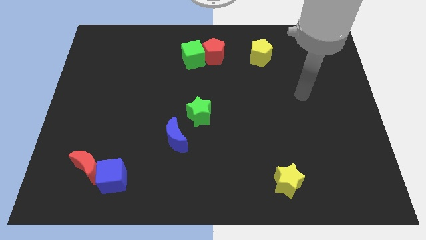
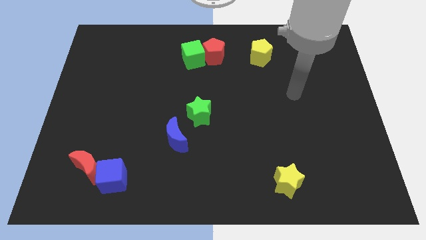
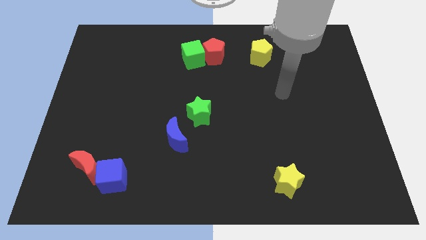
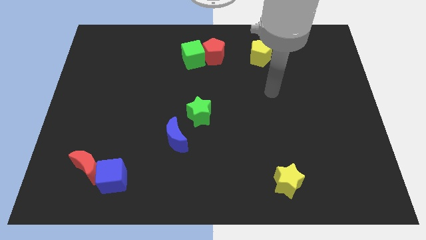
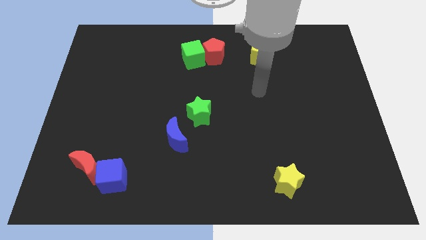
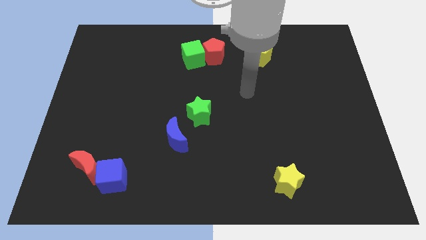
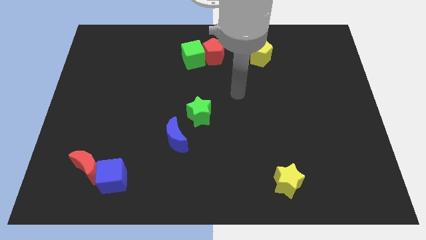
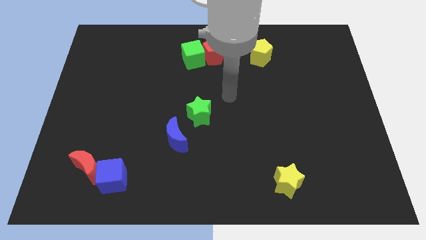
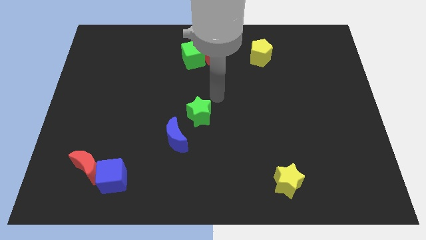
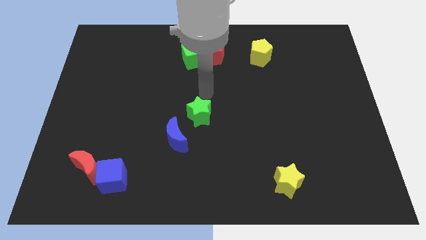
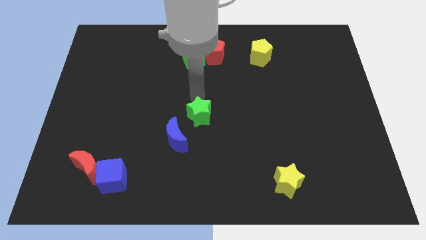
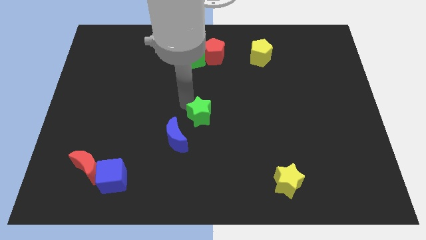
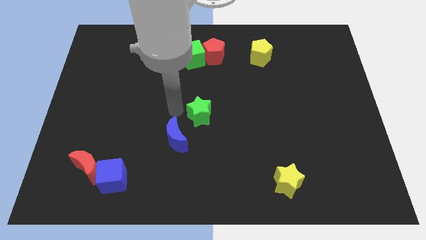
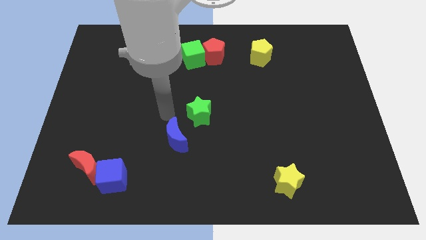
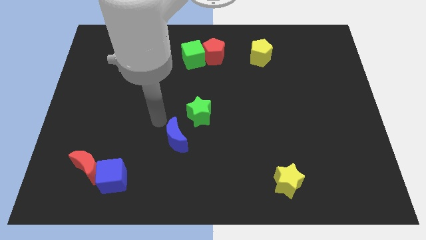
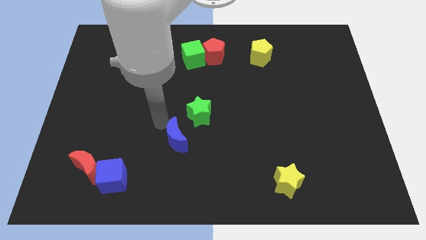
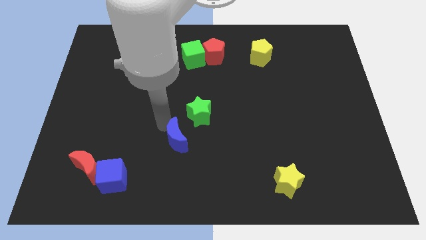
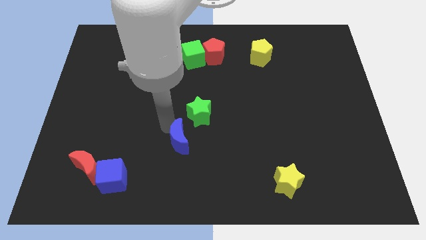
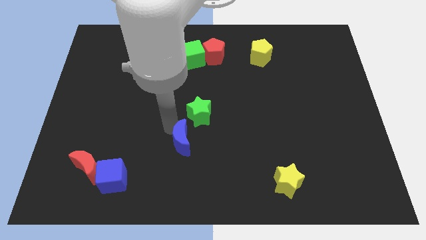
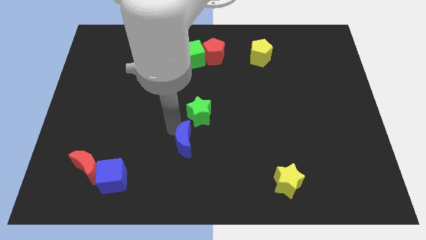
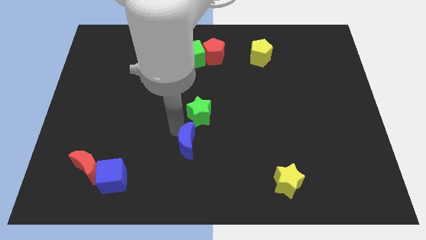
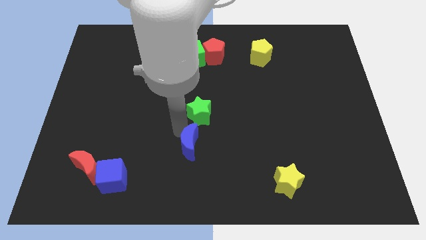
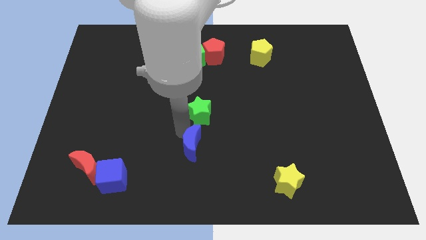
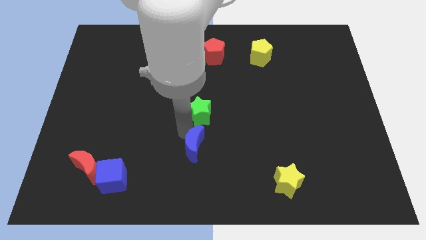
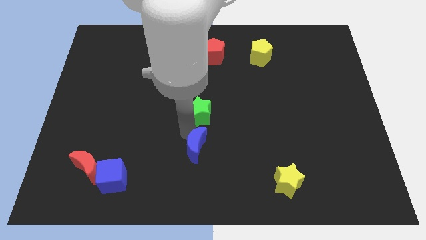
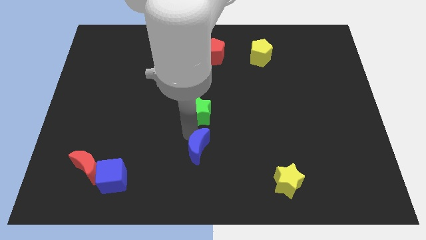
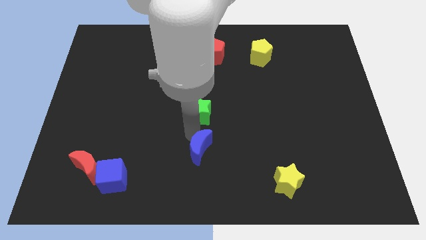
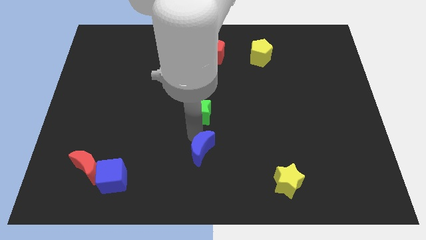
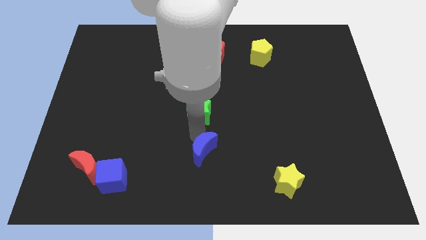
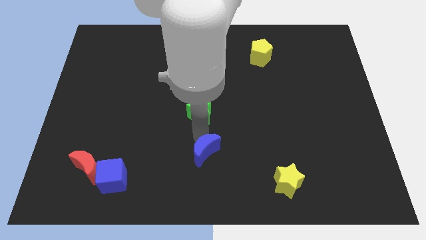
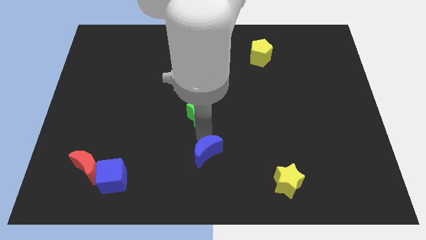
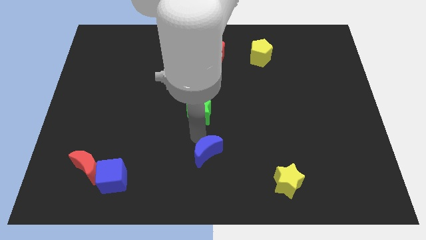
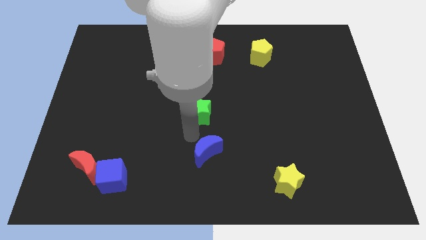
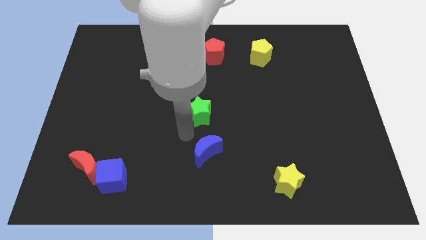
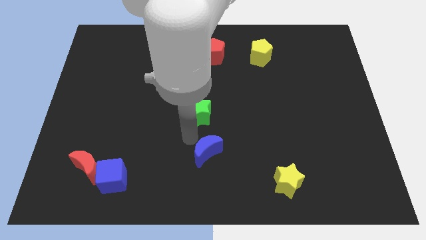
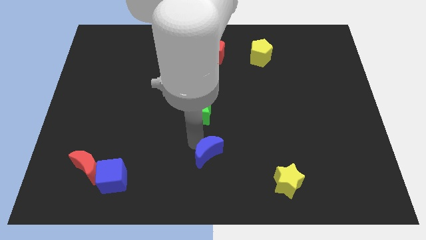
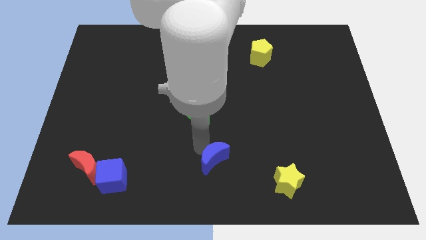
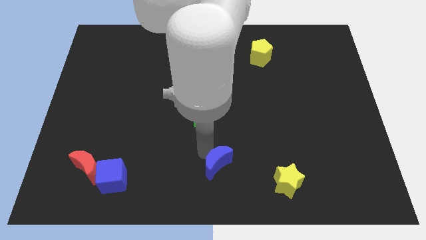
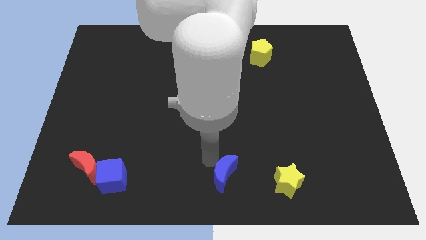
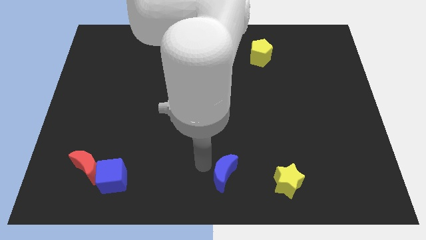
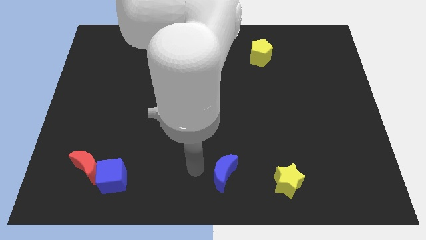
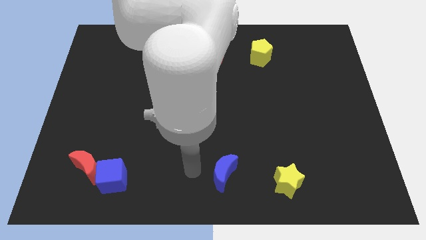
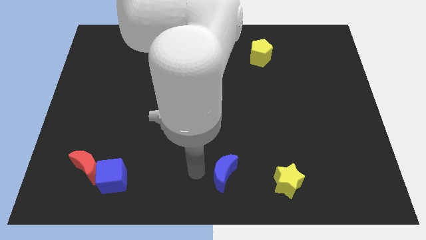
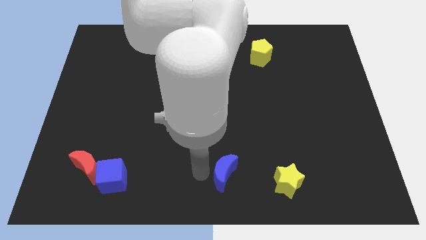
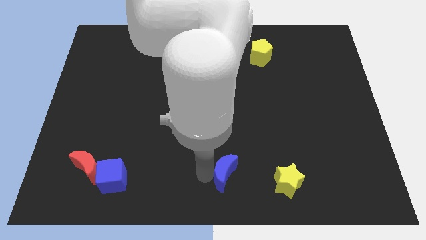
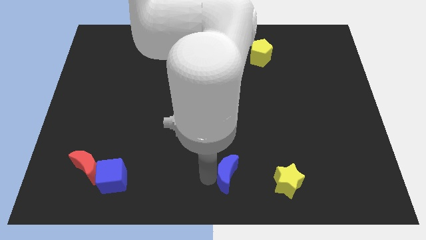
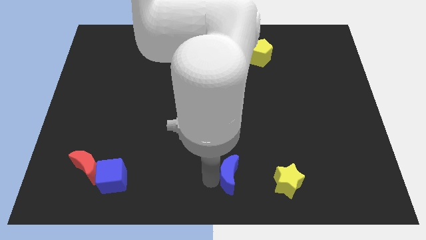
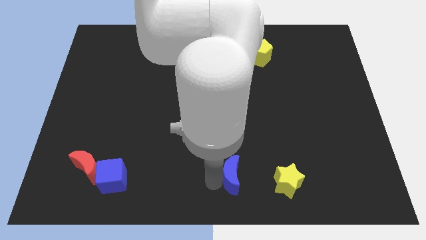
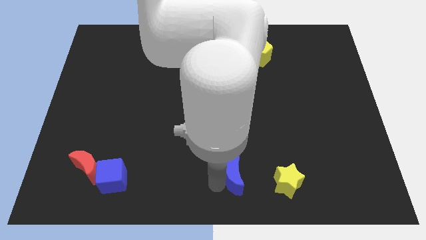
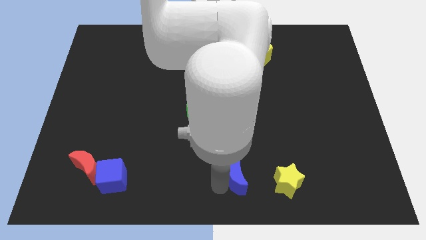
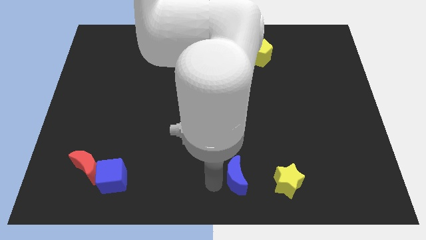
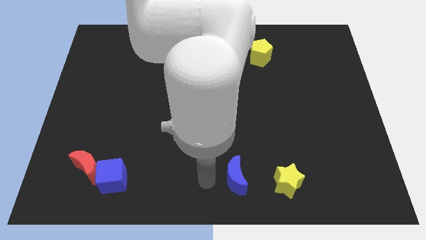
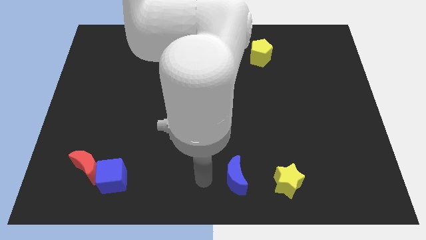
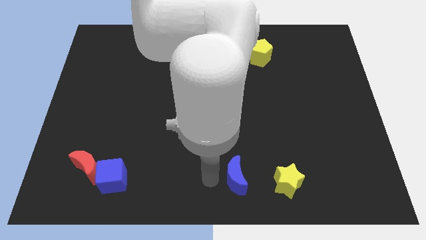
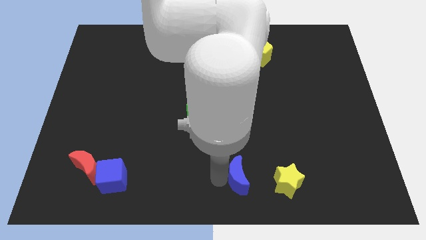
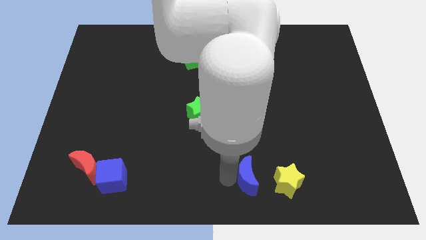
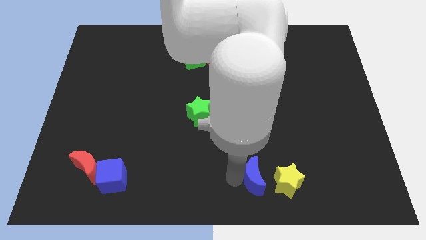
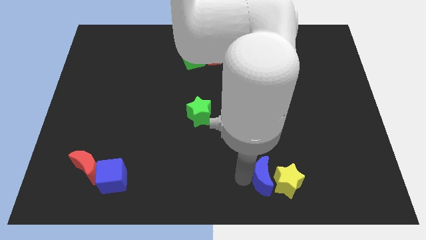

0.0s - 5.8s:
slide the blue moon close to the yellow star

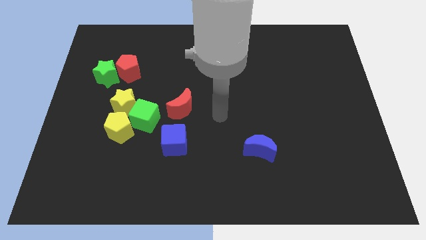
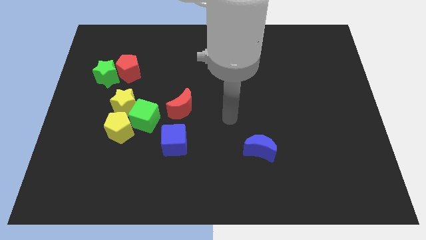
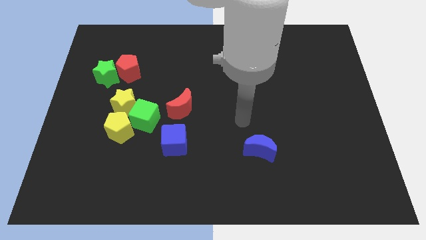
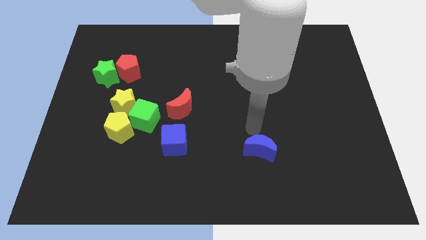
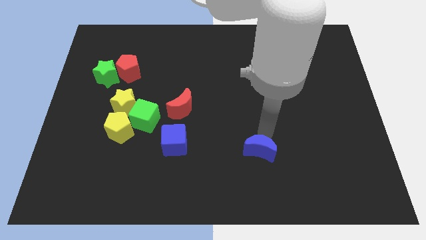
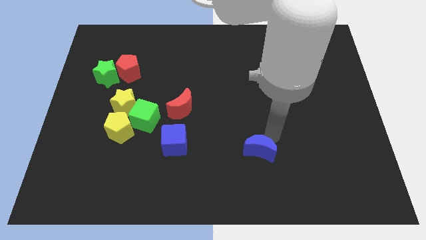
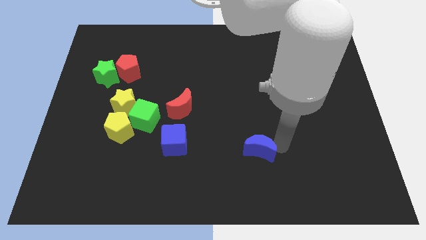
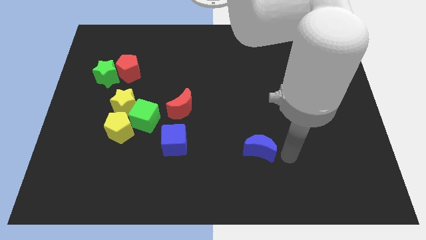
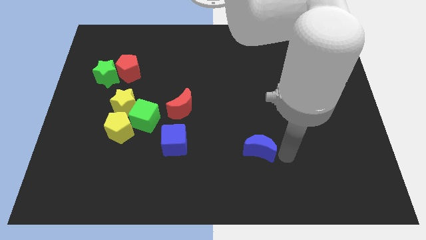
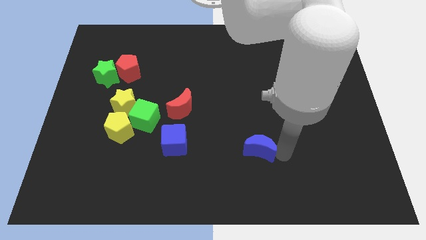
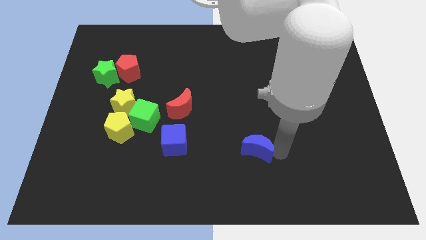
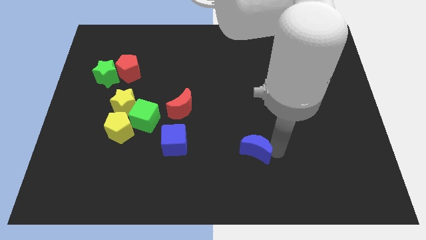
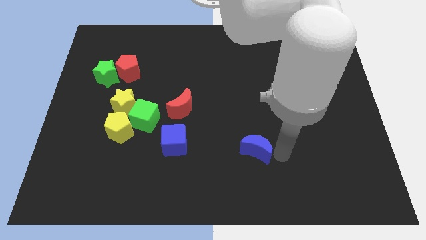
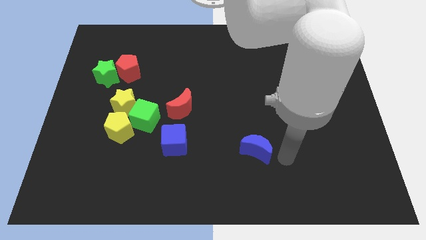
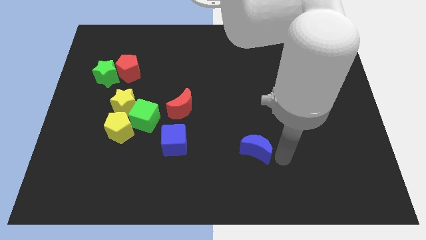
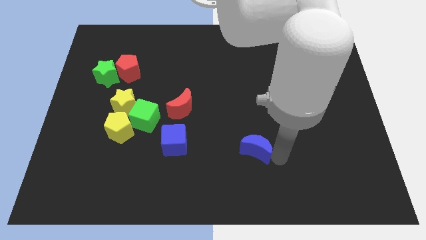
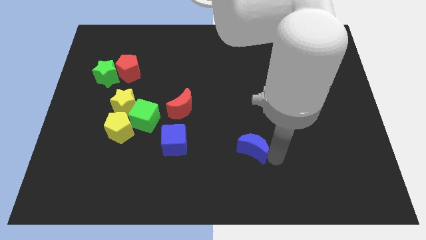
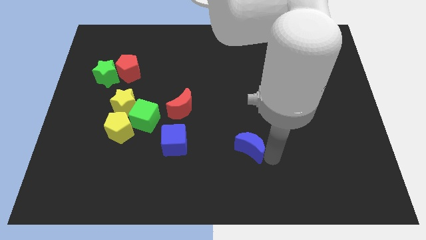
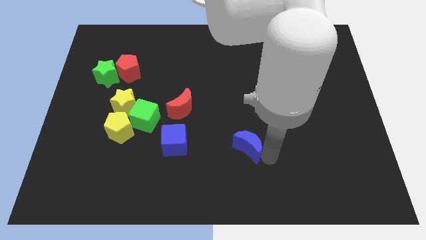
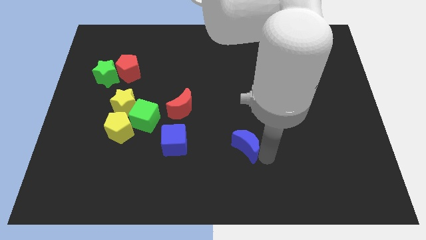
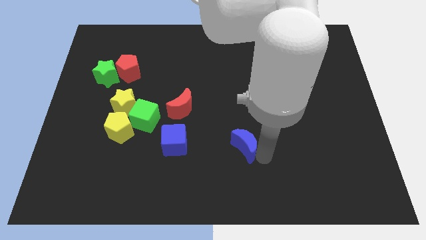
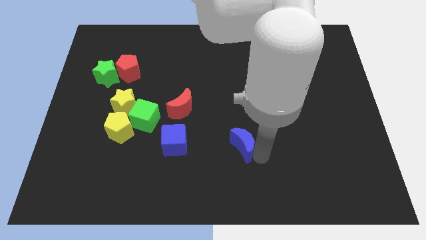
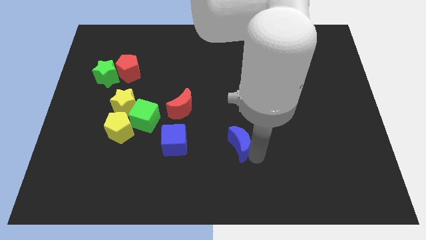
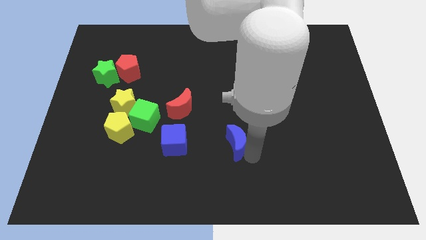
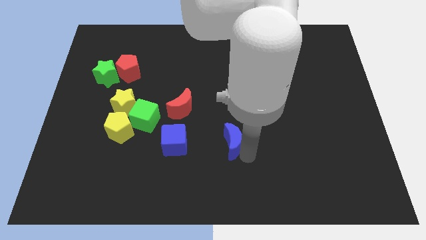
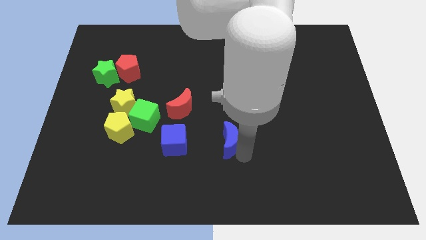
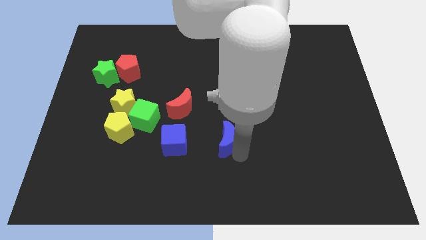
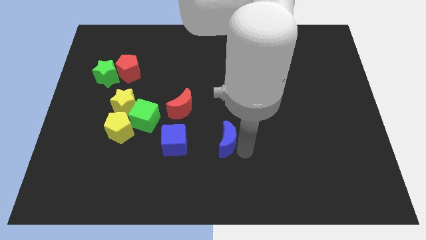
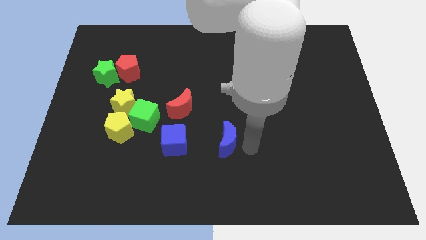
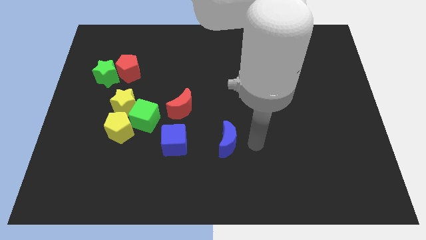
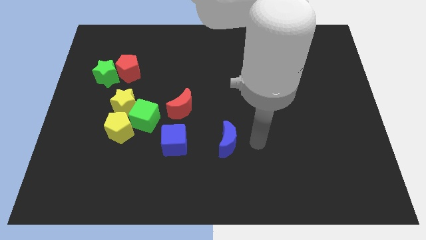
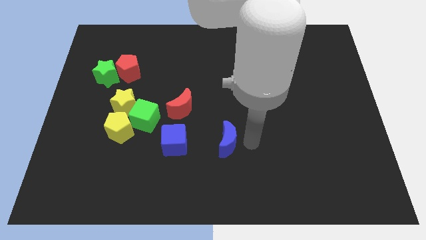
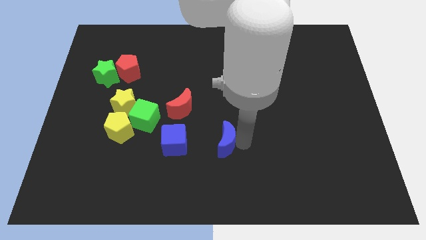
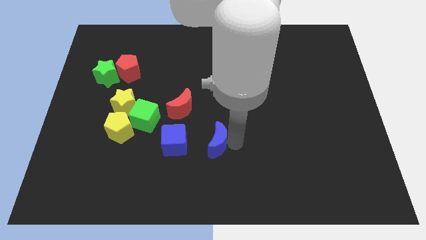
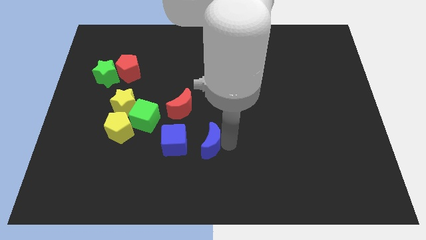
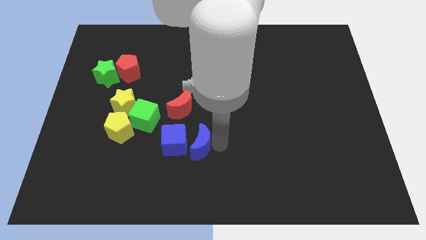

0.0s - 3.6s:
slide the blue moon to the blue cube
